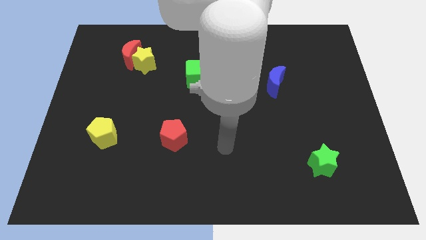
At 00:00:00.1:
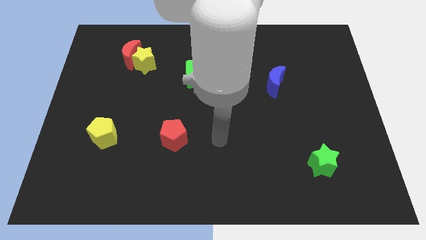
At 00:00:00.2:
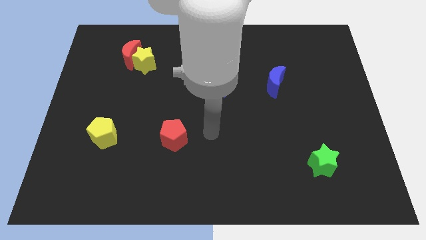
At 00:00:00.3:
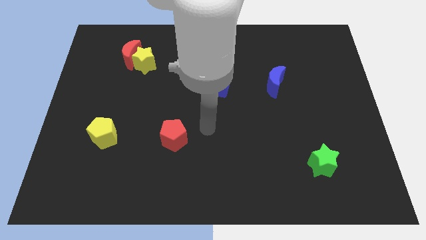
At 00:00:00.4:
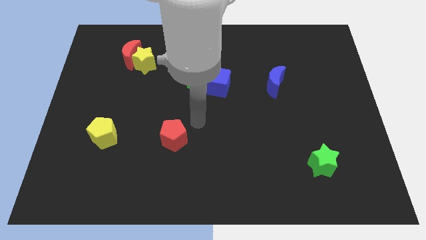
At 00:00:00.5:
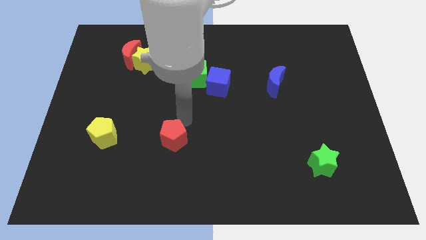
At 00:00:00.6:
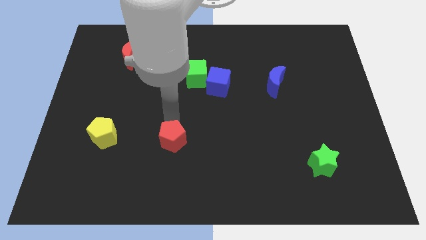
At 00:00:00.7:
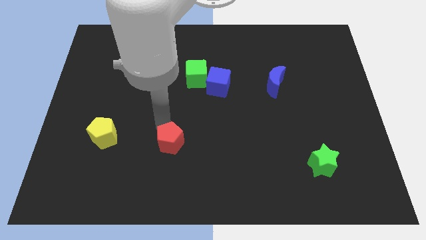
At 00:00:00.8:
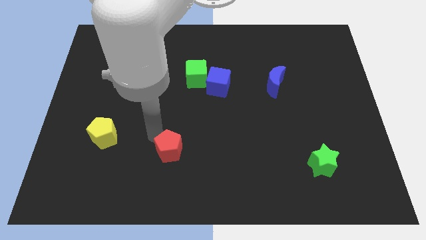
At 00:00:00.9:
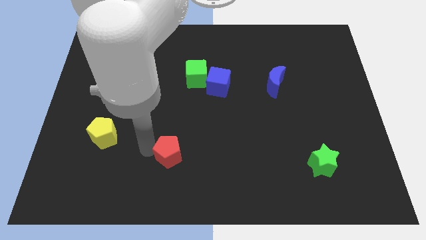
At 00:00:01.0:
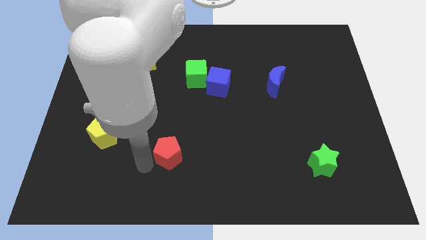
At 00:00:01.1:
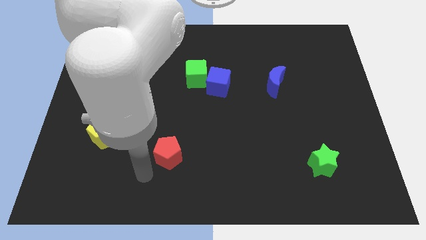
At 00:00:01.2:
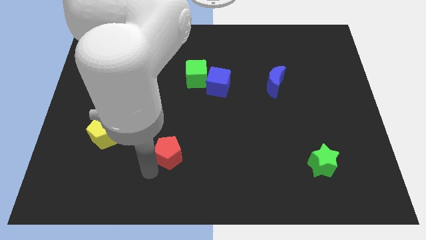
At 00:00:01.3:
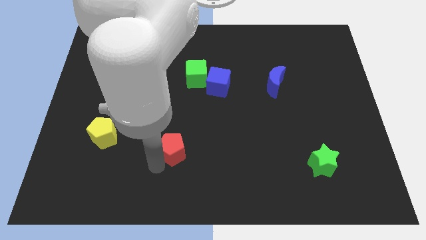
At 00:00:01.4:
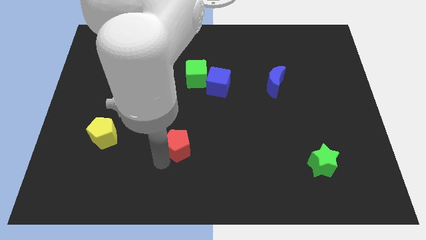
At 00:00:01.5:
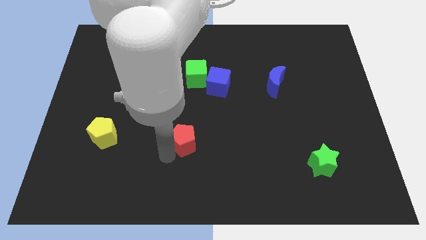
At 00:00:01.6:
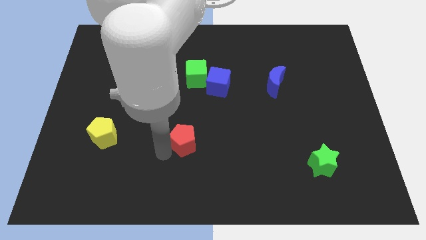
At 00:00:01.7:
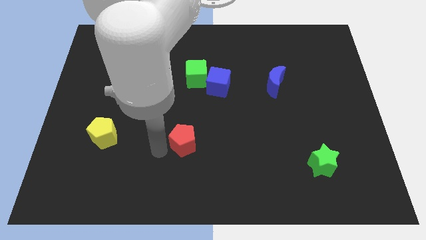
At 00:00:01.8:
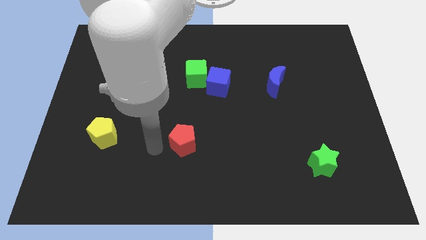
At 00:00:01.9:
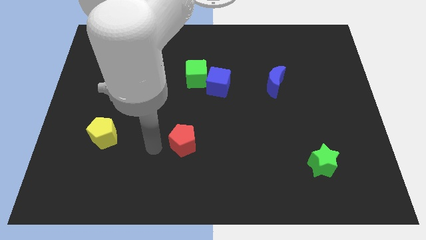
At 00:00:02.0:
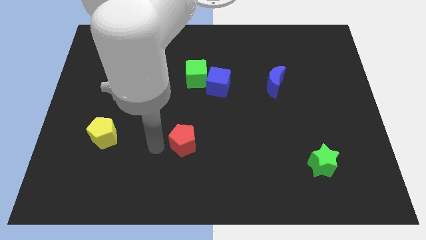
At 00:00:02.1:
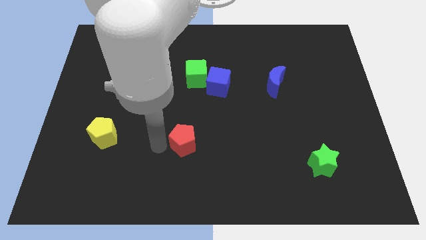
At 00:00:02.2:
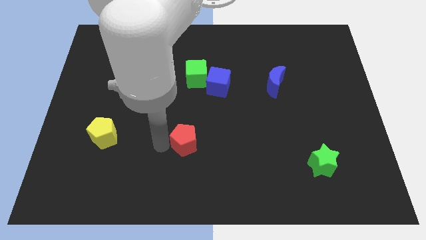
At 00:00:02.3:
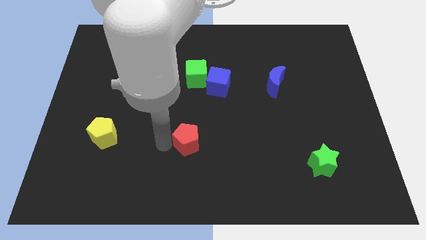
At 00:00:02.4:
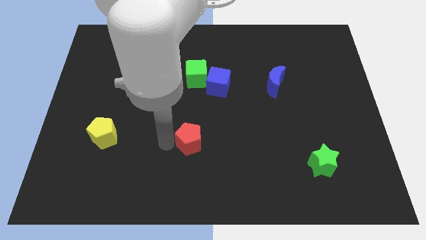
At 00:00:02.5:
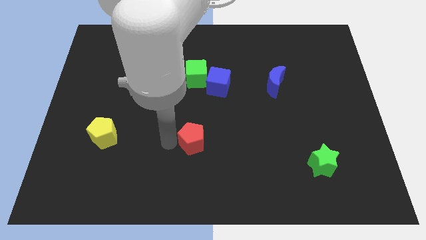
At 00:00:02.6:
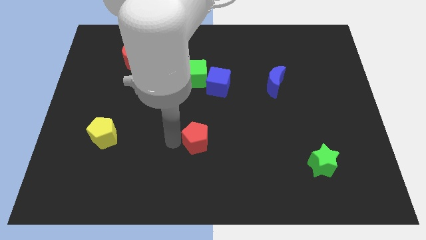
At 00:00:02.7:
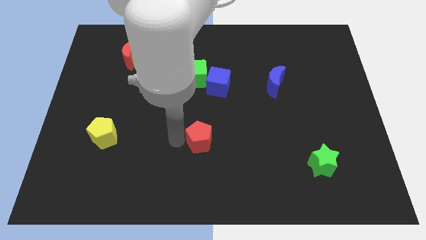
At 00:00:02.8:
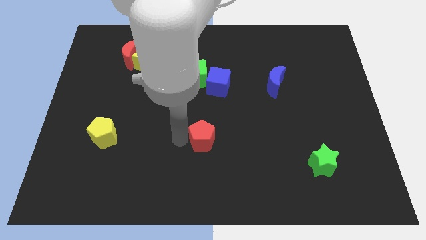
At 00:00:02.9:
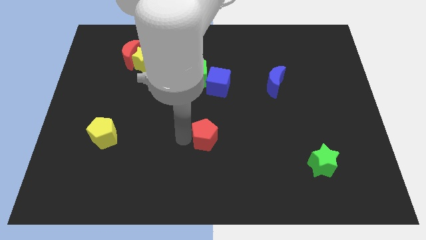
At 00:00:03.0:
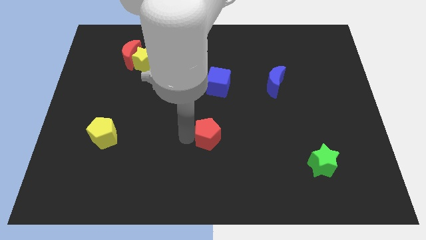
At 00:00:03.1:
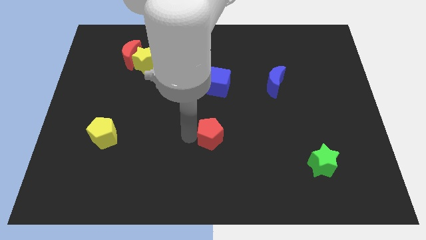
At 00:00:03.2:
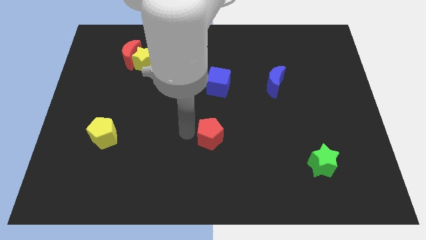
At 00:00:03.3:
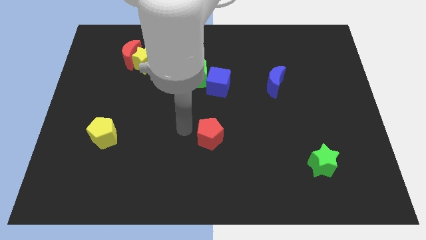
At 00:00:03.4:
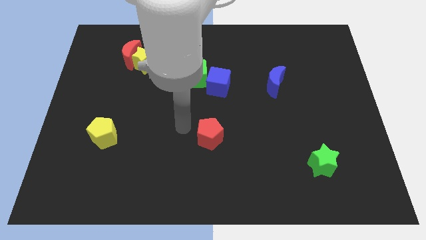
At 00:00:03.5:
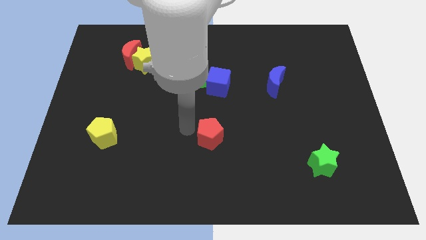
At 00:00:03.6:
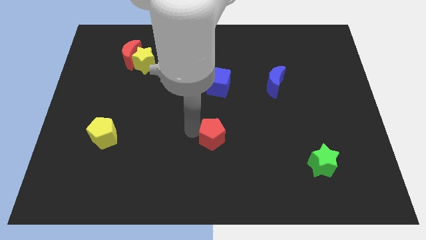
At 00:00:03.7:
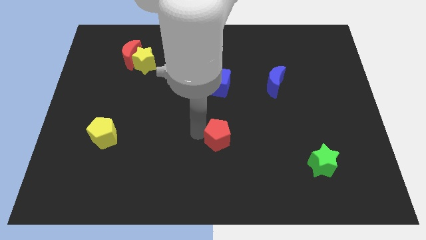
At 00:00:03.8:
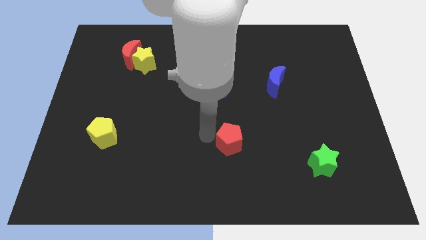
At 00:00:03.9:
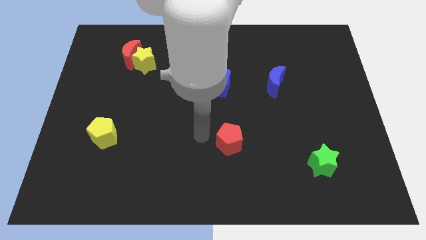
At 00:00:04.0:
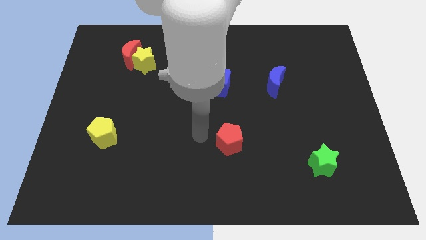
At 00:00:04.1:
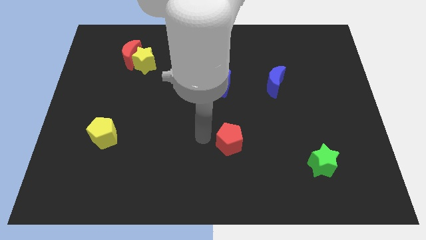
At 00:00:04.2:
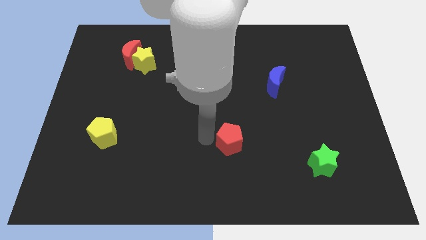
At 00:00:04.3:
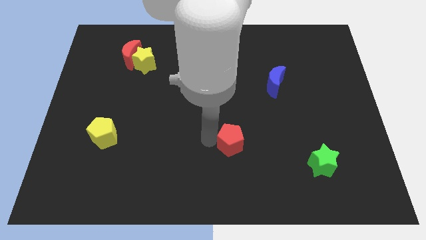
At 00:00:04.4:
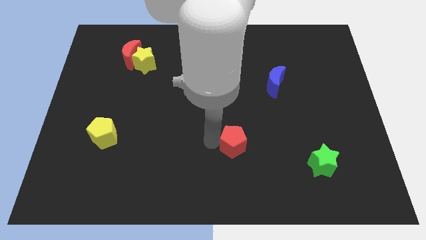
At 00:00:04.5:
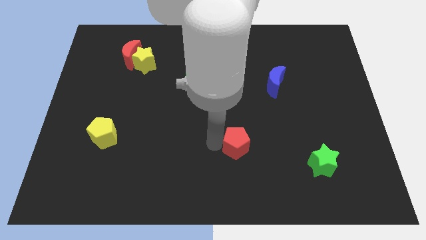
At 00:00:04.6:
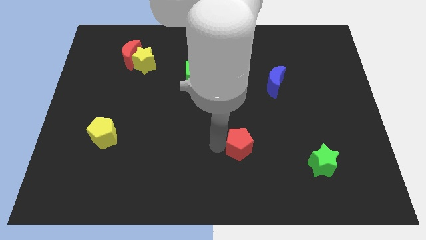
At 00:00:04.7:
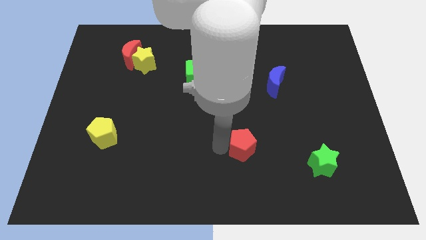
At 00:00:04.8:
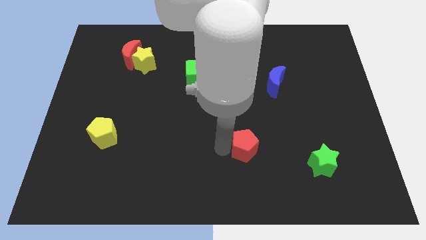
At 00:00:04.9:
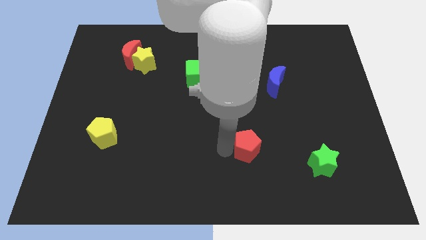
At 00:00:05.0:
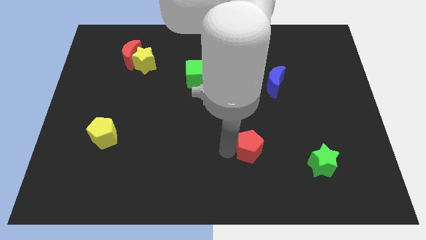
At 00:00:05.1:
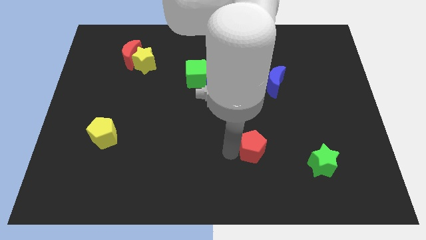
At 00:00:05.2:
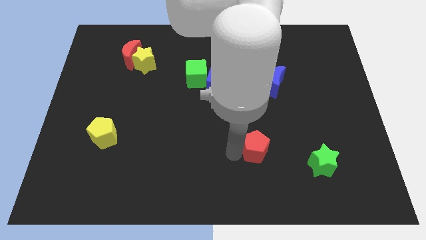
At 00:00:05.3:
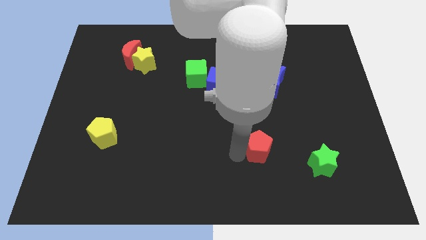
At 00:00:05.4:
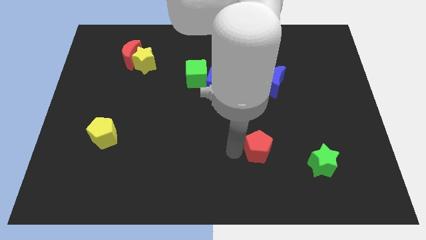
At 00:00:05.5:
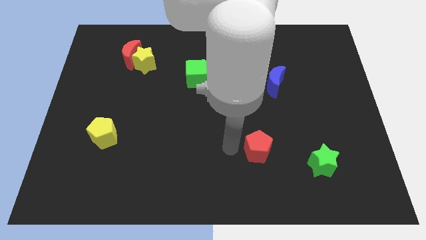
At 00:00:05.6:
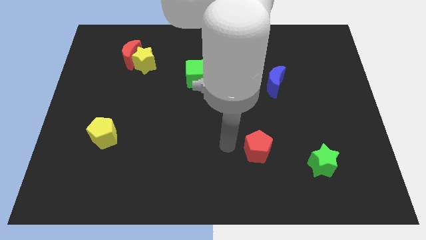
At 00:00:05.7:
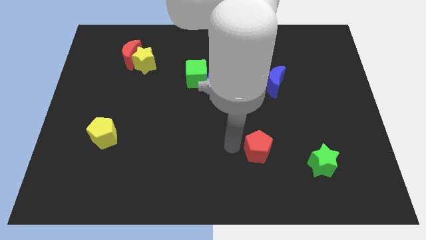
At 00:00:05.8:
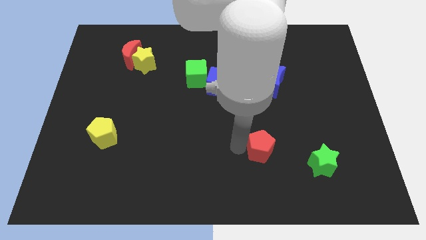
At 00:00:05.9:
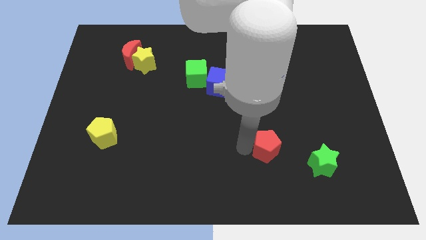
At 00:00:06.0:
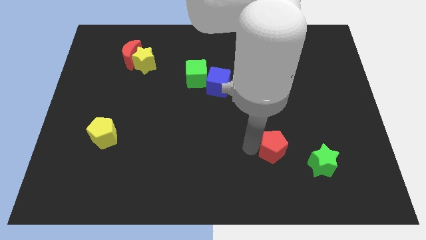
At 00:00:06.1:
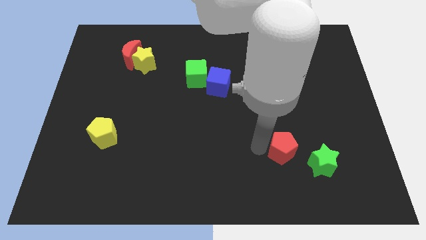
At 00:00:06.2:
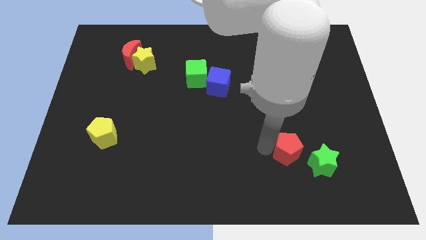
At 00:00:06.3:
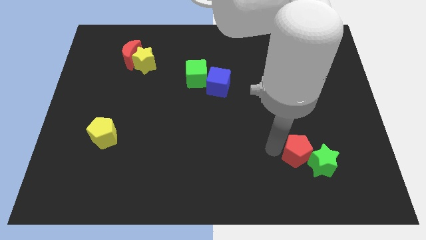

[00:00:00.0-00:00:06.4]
slide the red pentagon next to the green star
